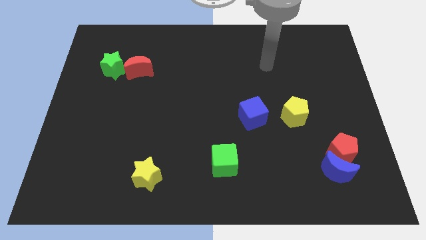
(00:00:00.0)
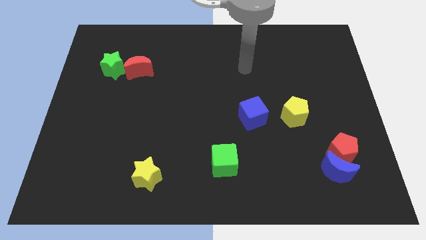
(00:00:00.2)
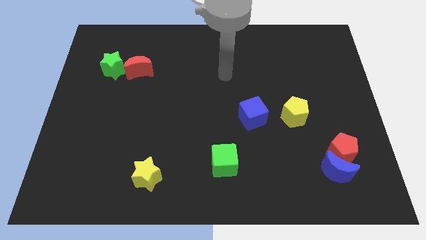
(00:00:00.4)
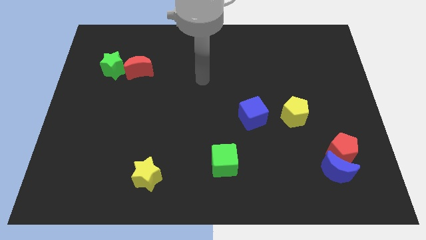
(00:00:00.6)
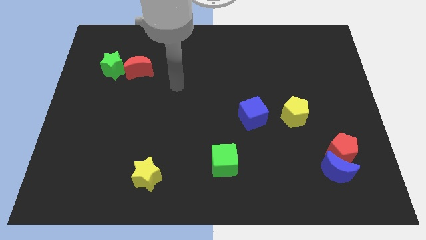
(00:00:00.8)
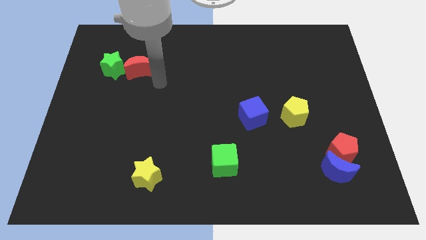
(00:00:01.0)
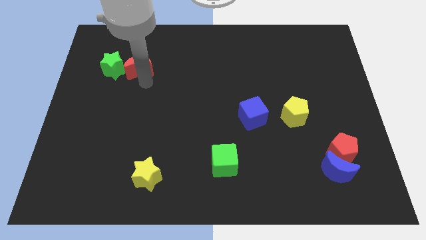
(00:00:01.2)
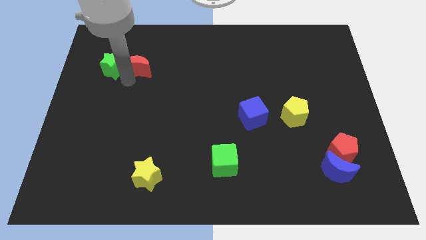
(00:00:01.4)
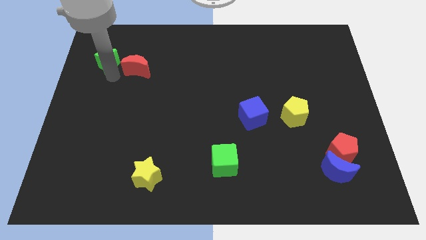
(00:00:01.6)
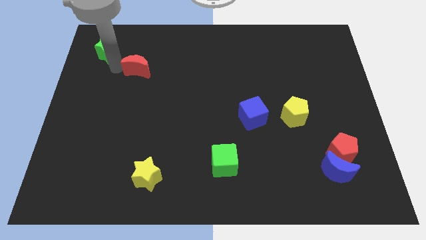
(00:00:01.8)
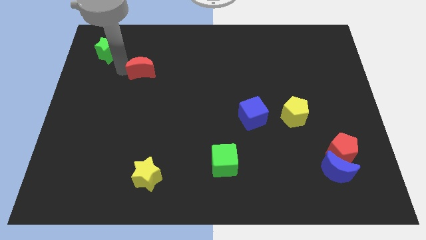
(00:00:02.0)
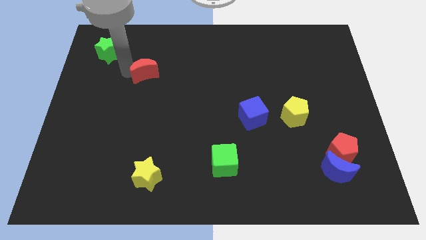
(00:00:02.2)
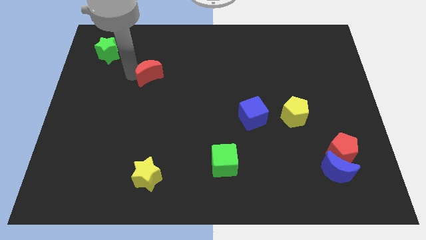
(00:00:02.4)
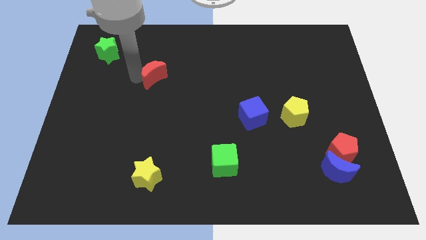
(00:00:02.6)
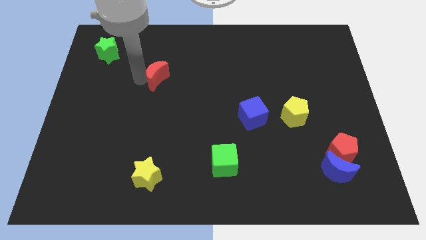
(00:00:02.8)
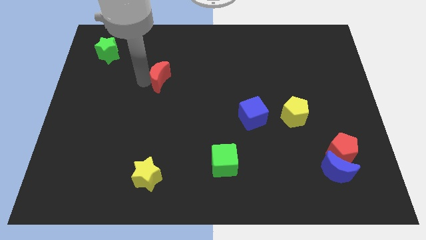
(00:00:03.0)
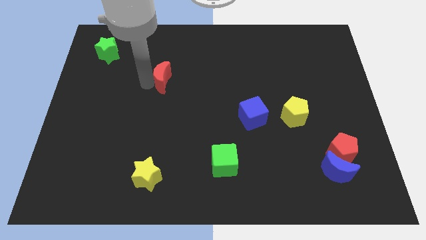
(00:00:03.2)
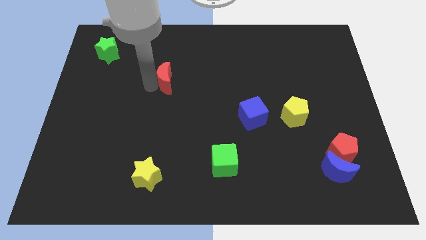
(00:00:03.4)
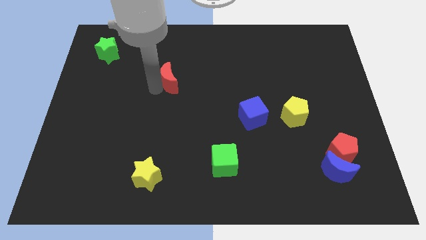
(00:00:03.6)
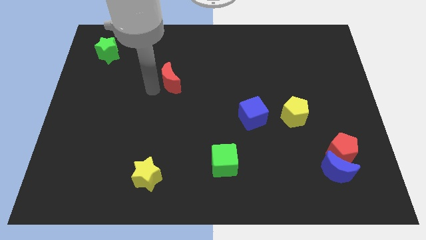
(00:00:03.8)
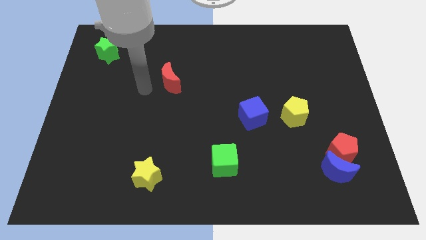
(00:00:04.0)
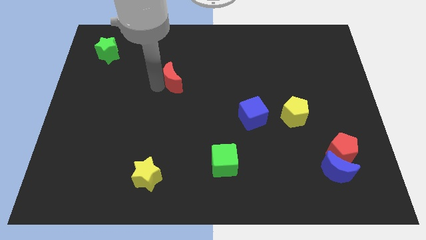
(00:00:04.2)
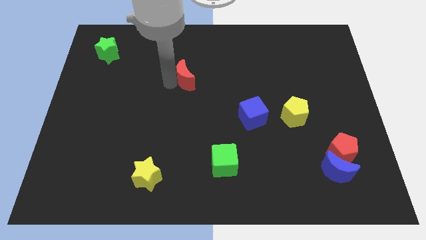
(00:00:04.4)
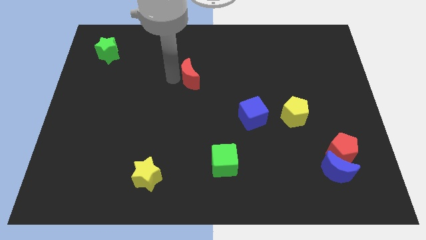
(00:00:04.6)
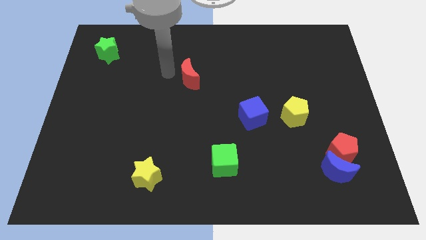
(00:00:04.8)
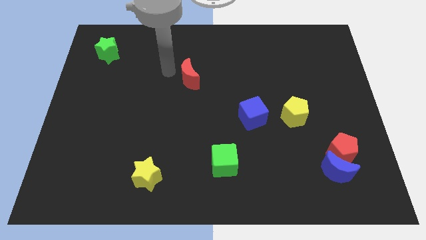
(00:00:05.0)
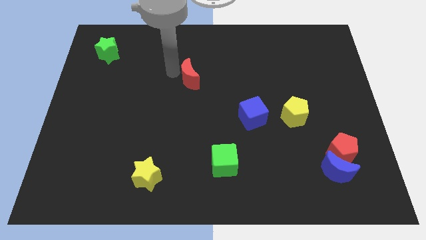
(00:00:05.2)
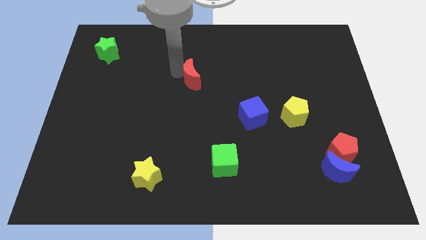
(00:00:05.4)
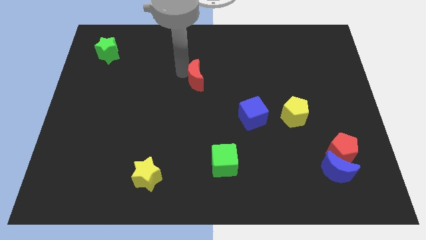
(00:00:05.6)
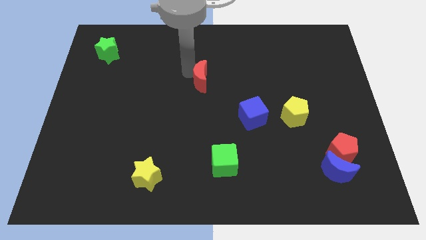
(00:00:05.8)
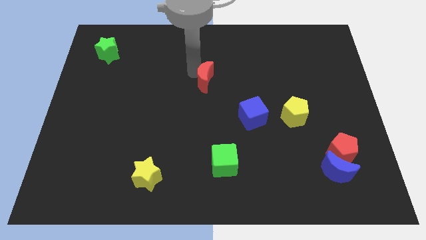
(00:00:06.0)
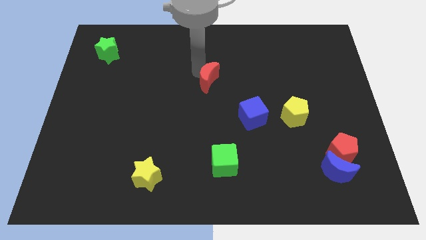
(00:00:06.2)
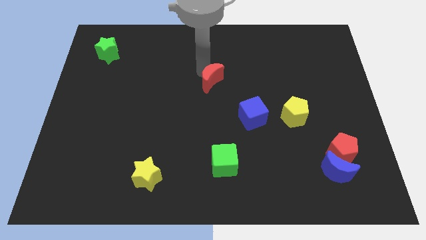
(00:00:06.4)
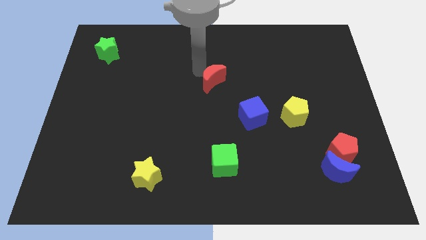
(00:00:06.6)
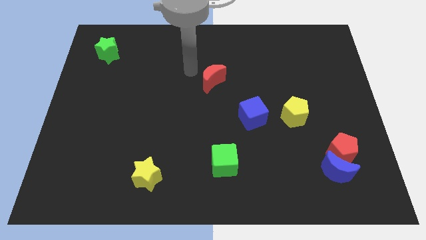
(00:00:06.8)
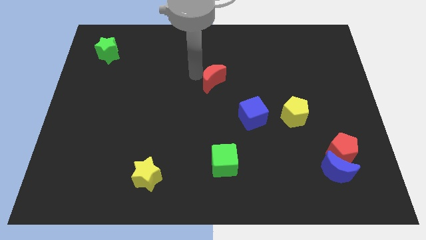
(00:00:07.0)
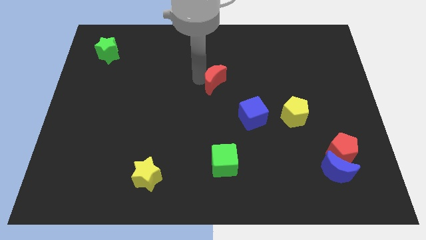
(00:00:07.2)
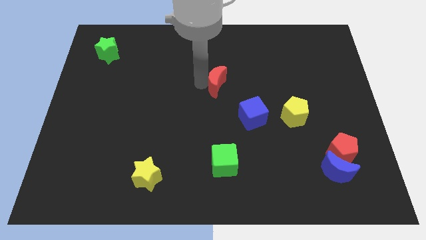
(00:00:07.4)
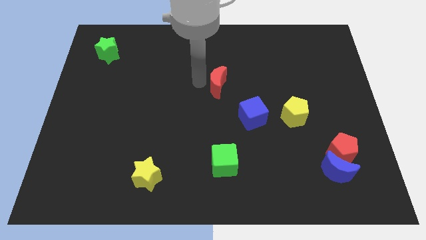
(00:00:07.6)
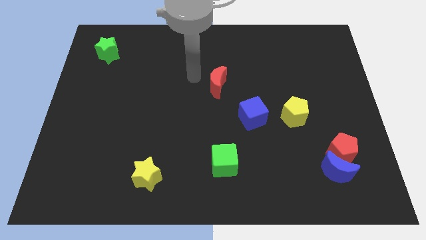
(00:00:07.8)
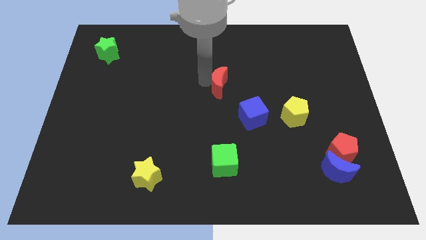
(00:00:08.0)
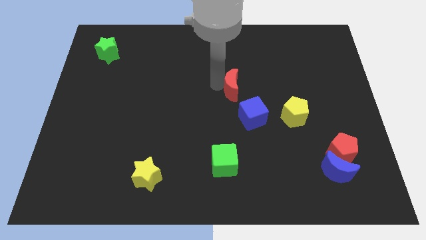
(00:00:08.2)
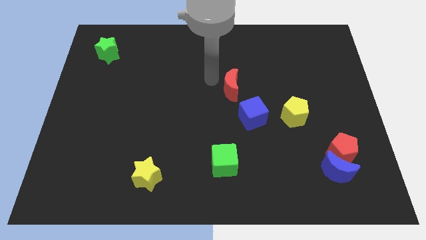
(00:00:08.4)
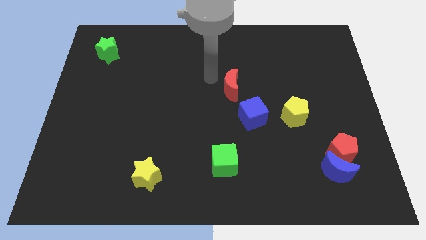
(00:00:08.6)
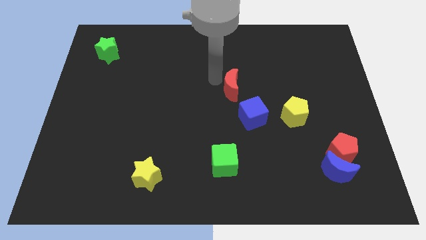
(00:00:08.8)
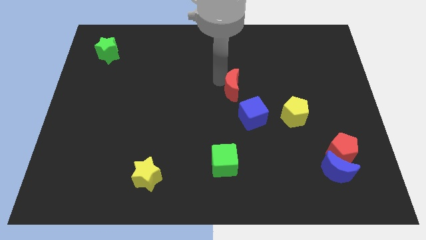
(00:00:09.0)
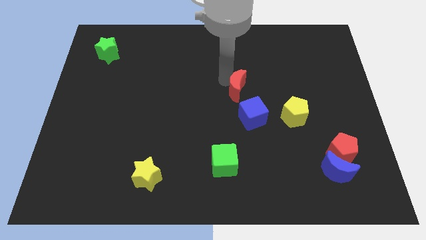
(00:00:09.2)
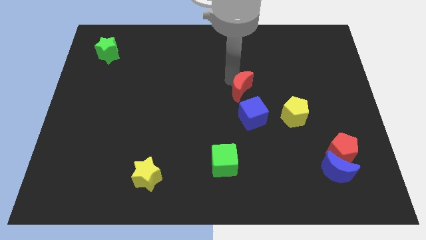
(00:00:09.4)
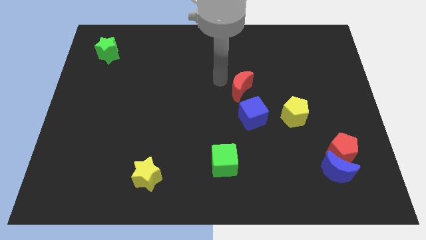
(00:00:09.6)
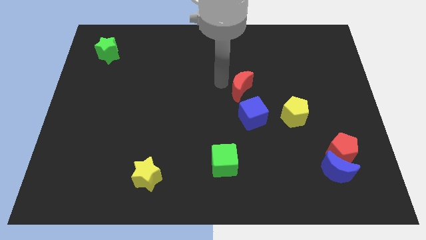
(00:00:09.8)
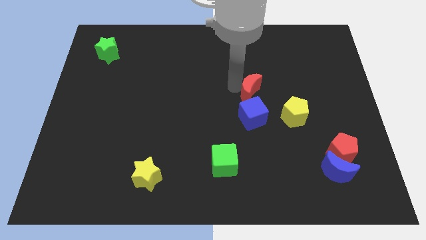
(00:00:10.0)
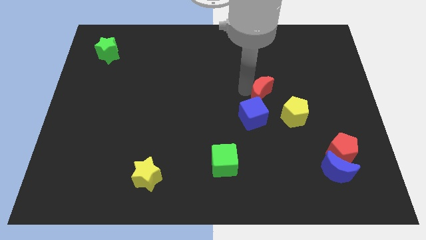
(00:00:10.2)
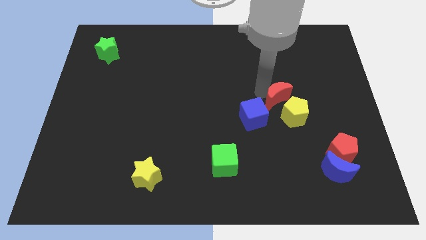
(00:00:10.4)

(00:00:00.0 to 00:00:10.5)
slide the red moon to the yellow pentagon

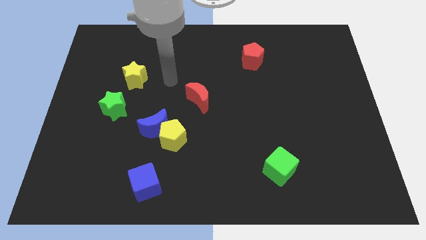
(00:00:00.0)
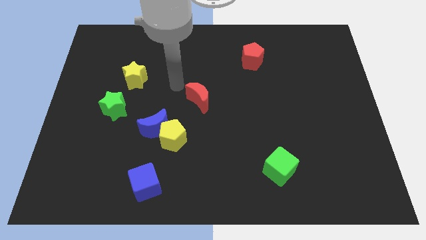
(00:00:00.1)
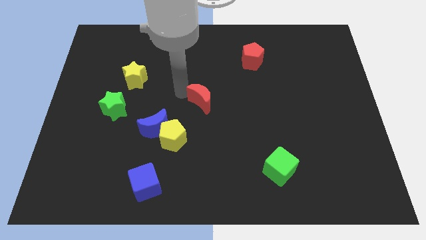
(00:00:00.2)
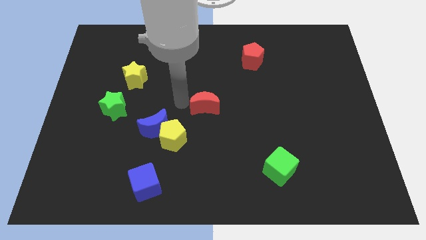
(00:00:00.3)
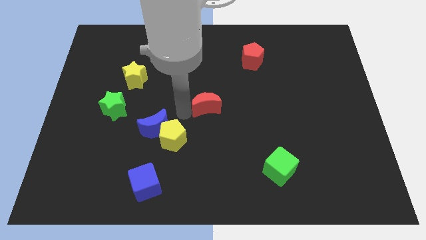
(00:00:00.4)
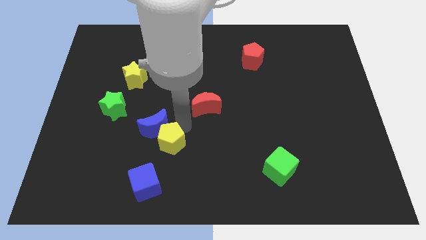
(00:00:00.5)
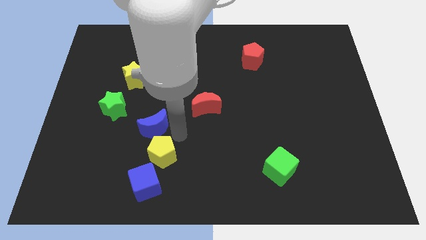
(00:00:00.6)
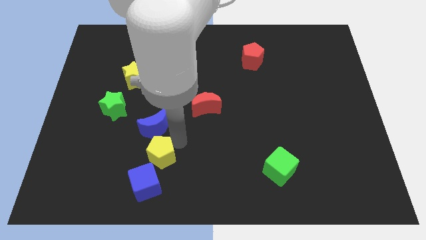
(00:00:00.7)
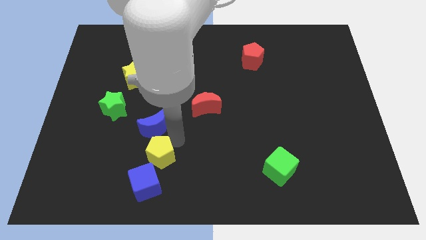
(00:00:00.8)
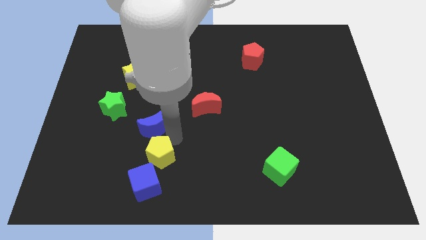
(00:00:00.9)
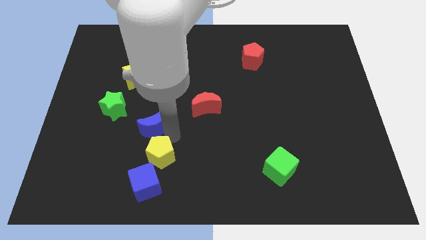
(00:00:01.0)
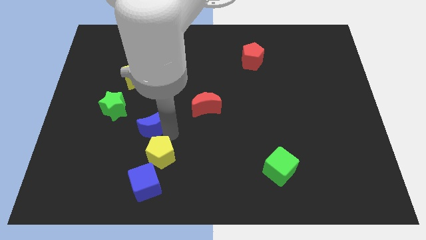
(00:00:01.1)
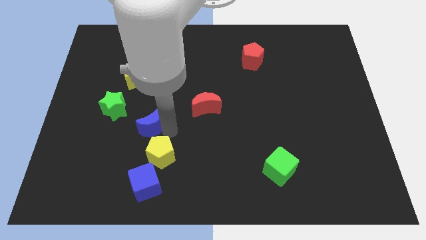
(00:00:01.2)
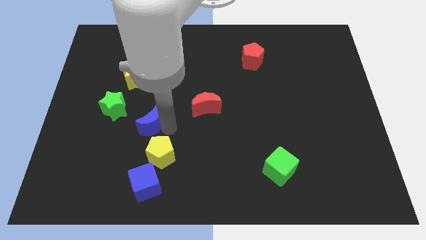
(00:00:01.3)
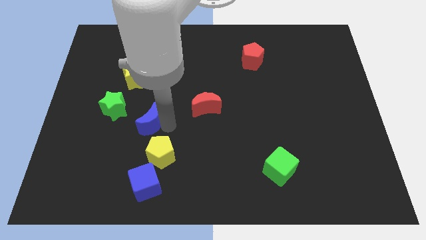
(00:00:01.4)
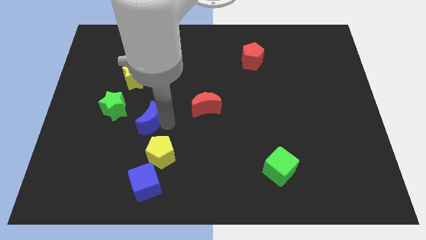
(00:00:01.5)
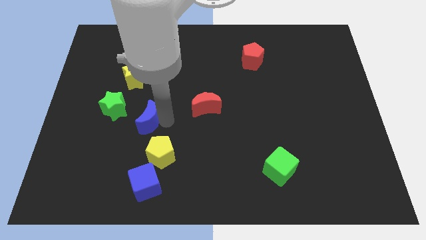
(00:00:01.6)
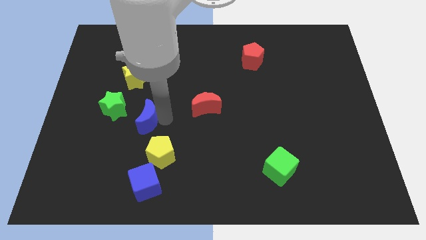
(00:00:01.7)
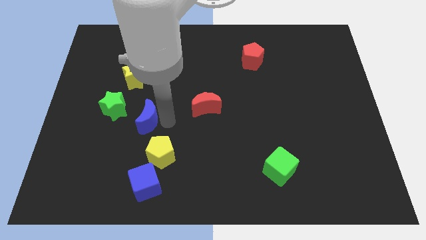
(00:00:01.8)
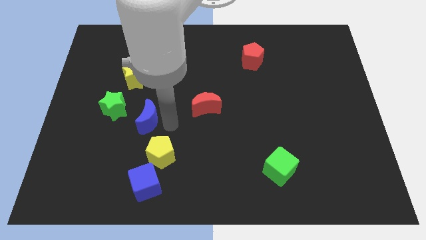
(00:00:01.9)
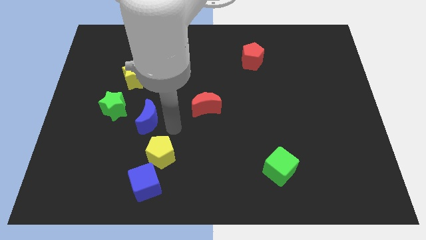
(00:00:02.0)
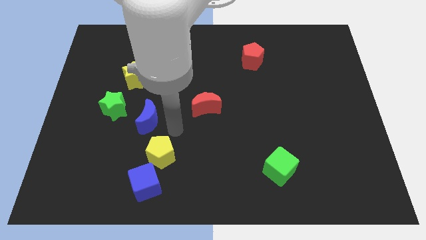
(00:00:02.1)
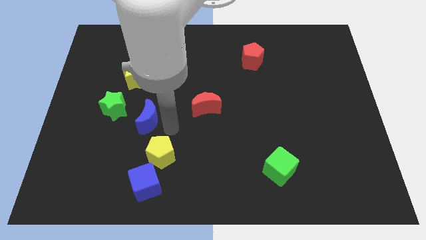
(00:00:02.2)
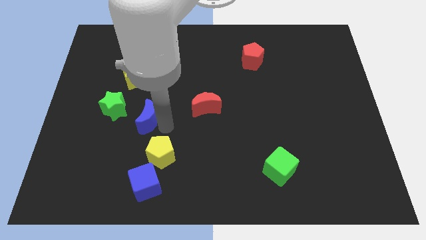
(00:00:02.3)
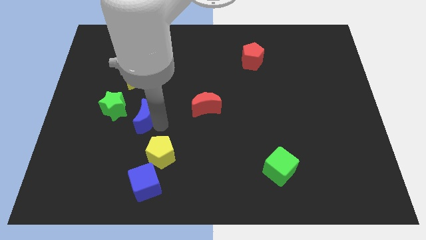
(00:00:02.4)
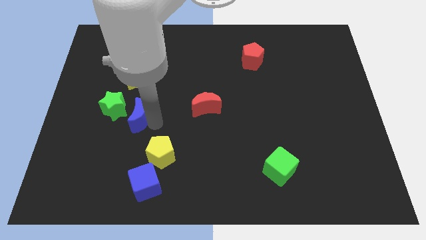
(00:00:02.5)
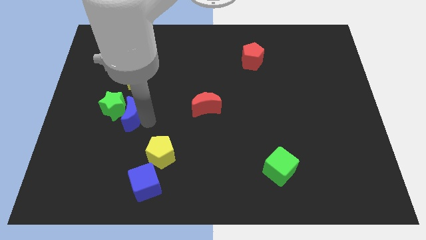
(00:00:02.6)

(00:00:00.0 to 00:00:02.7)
put the blue moon next to the green star

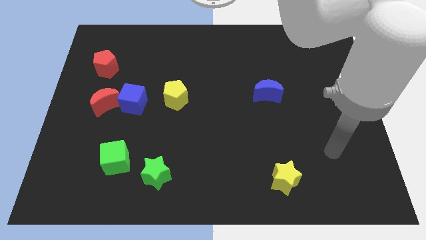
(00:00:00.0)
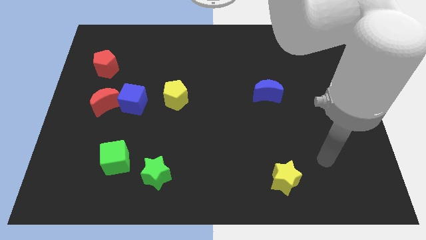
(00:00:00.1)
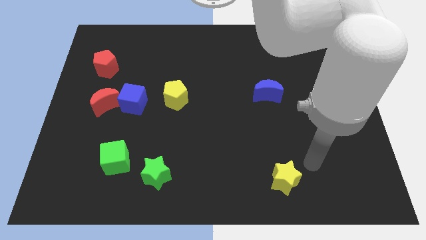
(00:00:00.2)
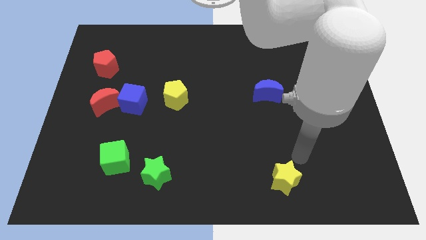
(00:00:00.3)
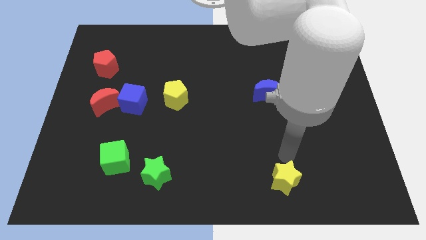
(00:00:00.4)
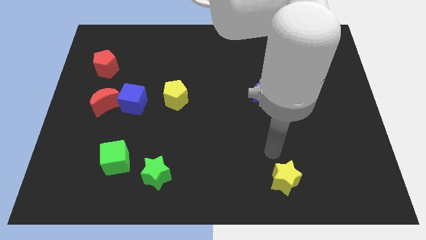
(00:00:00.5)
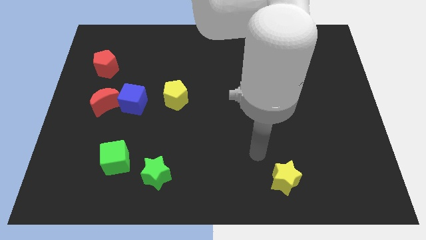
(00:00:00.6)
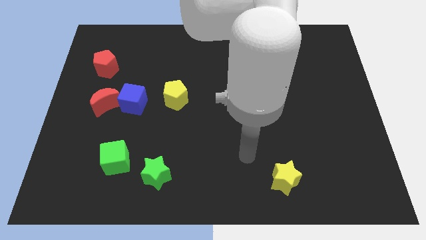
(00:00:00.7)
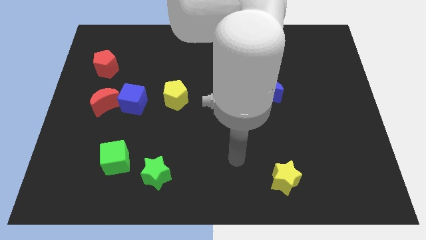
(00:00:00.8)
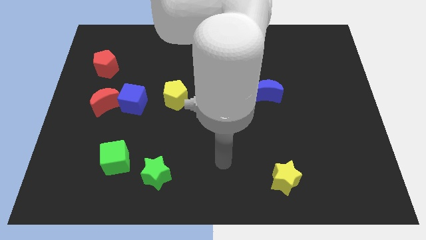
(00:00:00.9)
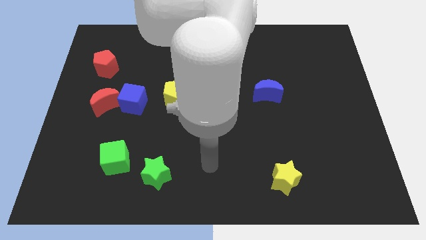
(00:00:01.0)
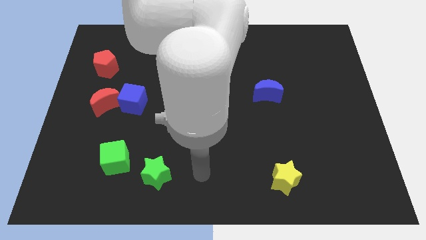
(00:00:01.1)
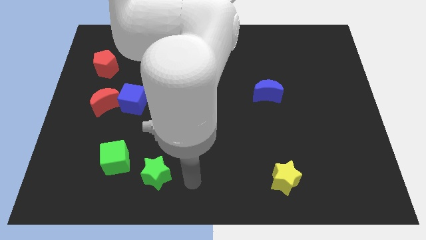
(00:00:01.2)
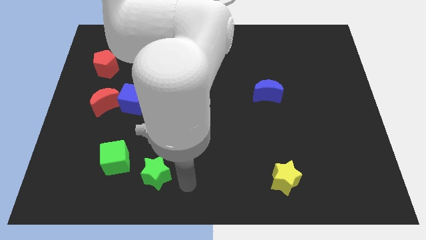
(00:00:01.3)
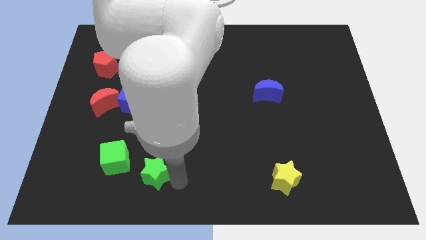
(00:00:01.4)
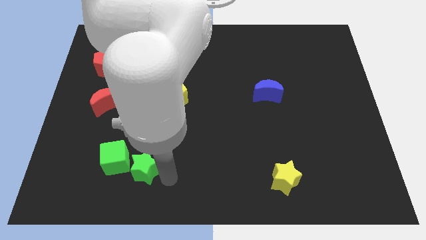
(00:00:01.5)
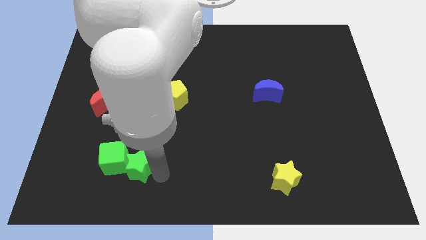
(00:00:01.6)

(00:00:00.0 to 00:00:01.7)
push the green star close to the green cube
